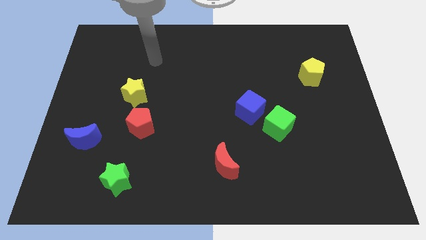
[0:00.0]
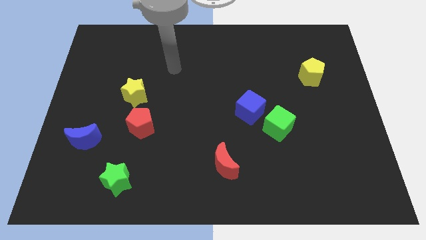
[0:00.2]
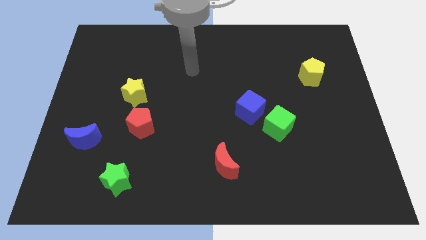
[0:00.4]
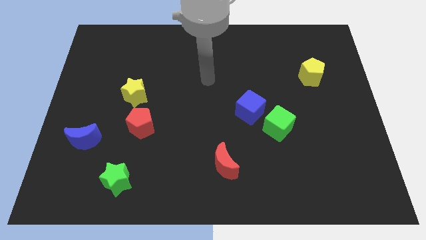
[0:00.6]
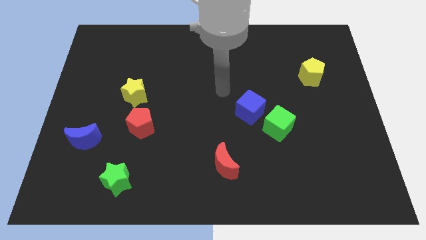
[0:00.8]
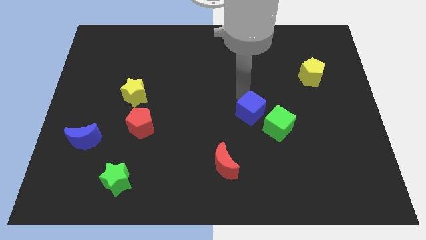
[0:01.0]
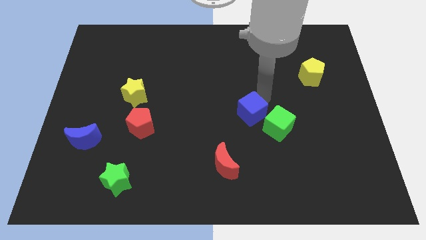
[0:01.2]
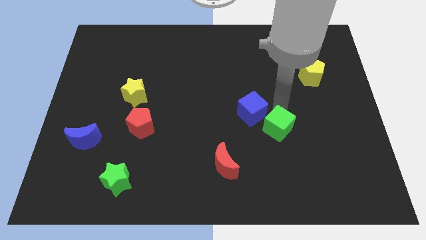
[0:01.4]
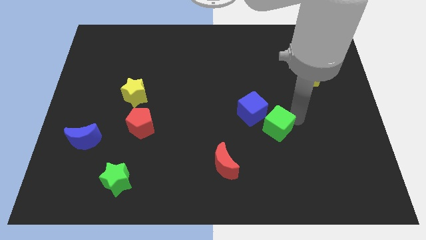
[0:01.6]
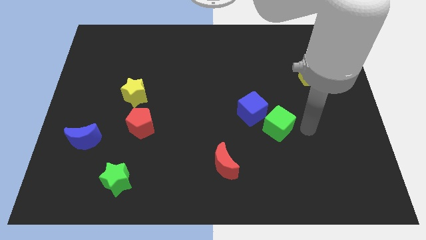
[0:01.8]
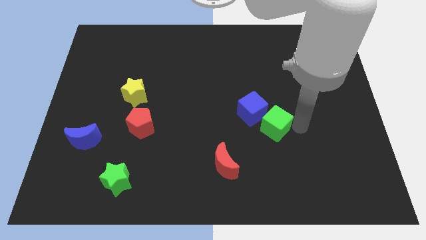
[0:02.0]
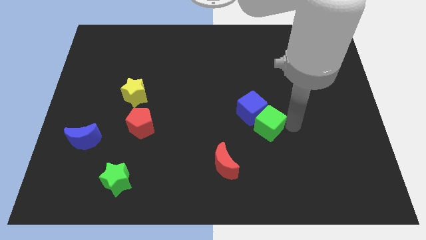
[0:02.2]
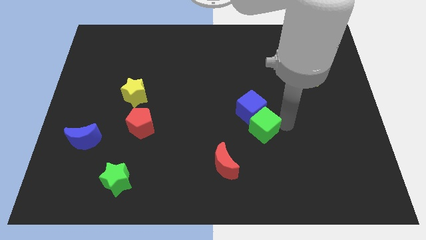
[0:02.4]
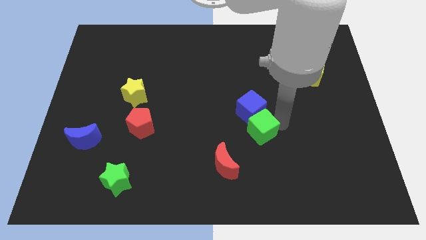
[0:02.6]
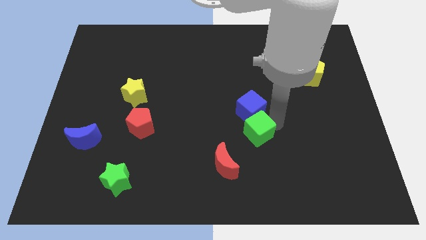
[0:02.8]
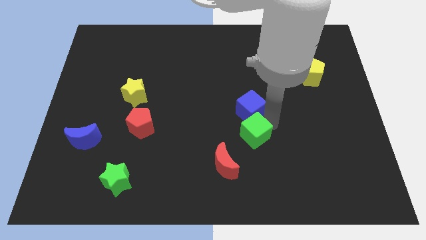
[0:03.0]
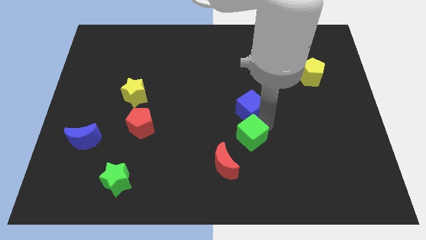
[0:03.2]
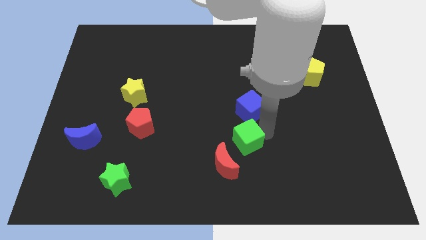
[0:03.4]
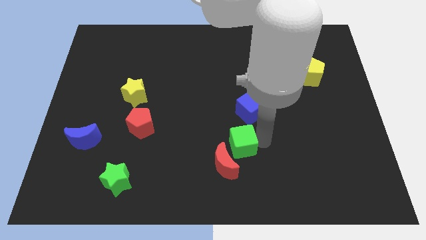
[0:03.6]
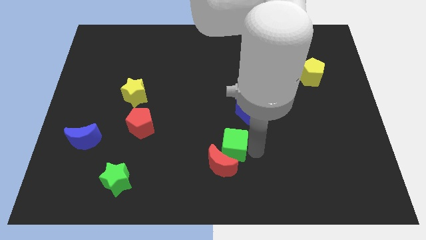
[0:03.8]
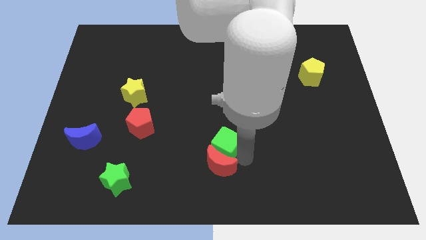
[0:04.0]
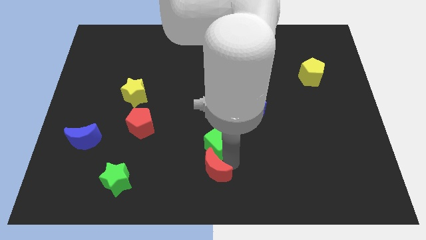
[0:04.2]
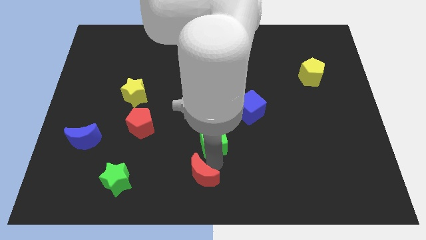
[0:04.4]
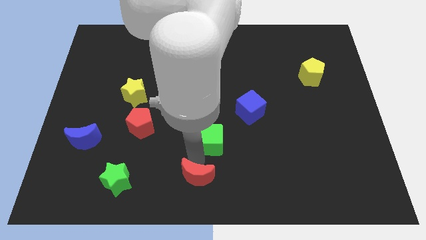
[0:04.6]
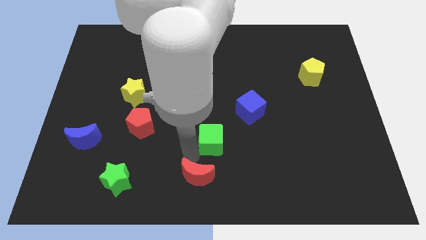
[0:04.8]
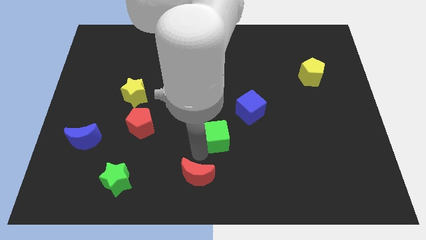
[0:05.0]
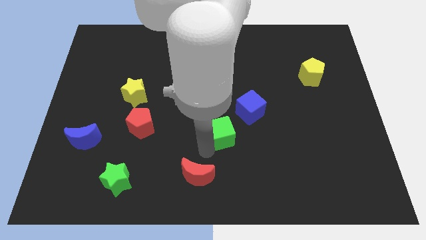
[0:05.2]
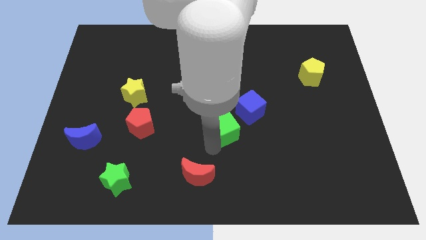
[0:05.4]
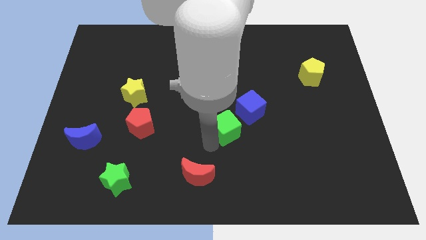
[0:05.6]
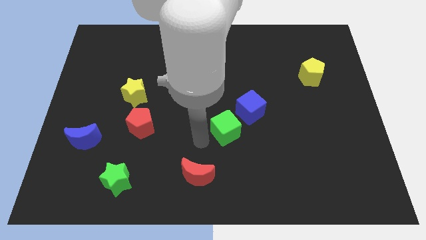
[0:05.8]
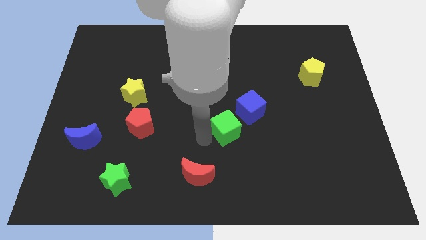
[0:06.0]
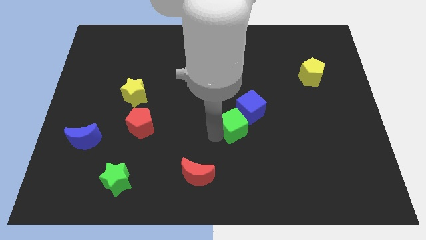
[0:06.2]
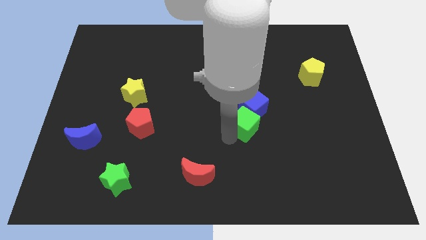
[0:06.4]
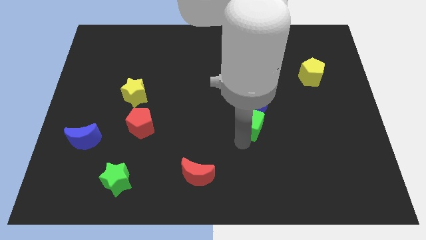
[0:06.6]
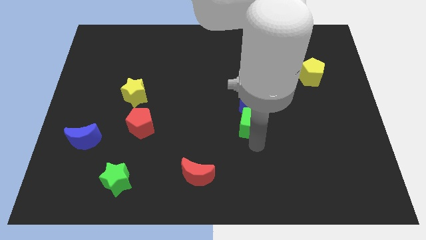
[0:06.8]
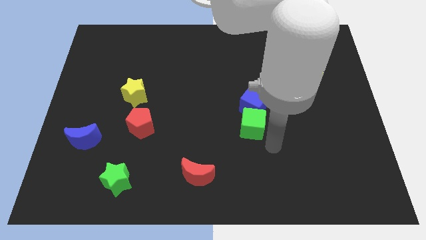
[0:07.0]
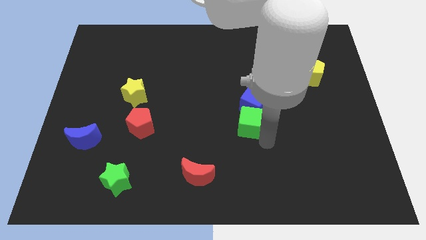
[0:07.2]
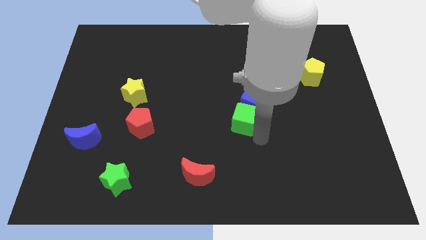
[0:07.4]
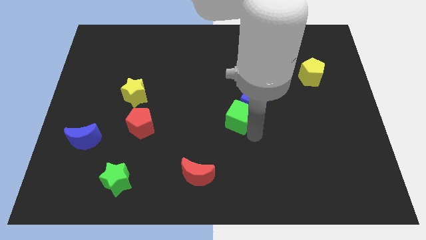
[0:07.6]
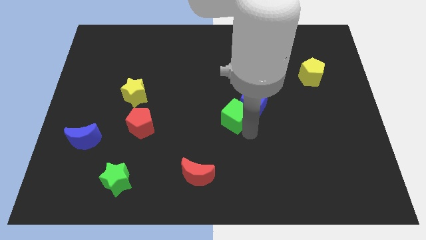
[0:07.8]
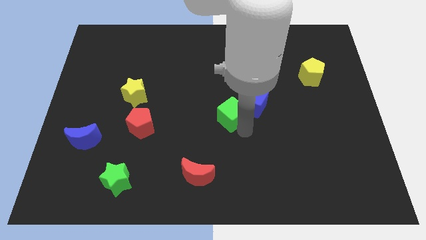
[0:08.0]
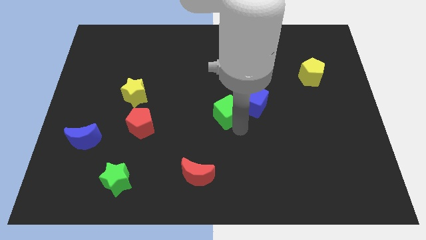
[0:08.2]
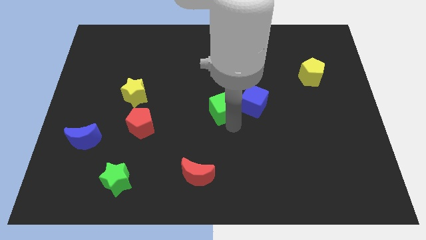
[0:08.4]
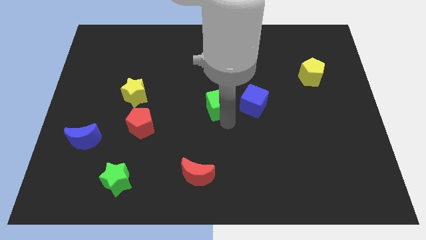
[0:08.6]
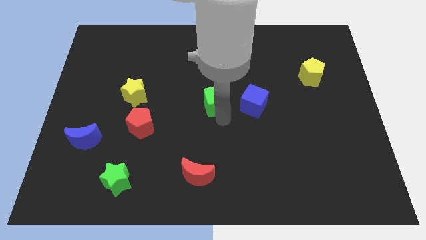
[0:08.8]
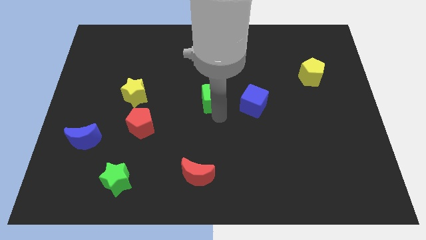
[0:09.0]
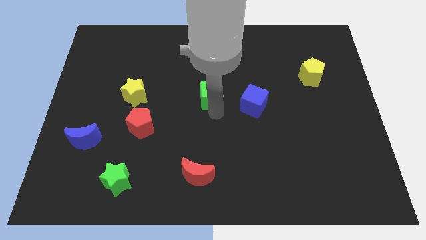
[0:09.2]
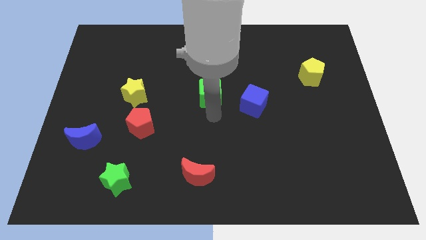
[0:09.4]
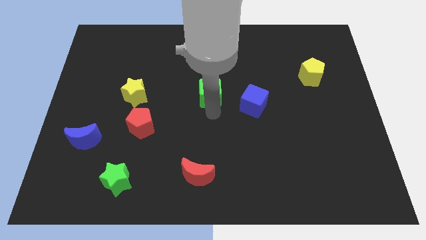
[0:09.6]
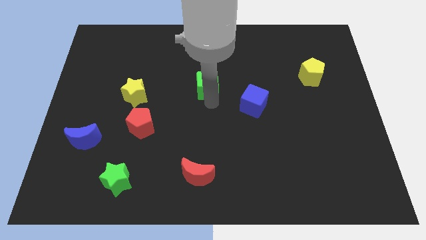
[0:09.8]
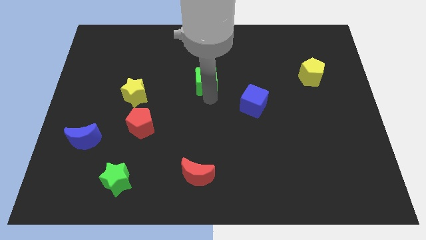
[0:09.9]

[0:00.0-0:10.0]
push the green cube diagonally upwards and to the left

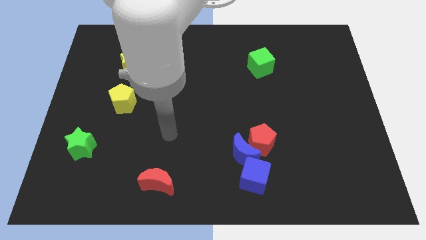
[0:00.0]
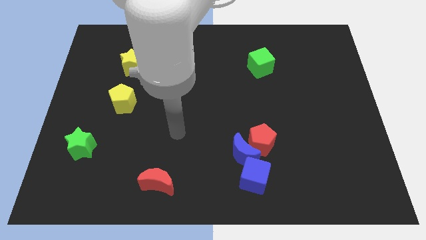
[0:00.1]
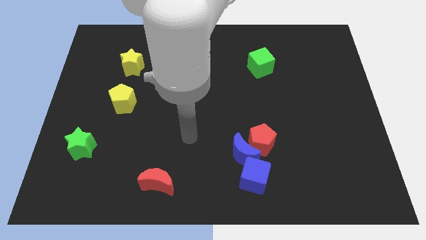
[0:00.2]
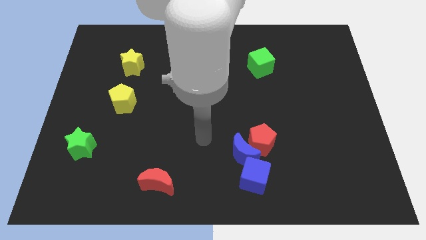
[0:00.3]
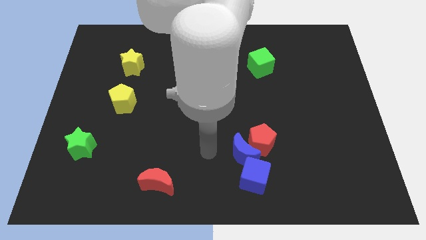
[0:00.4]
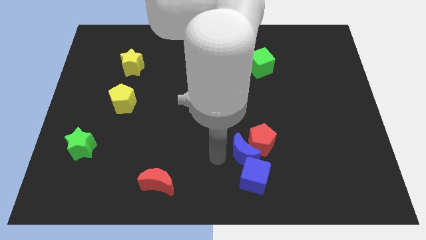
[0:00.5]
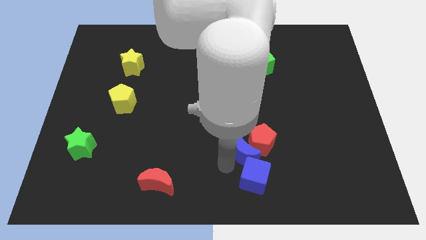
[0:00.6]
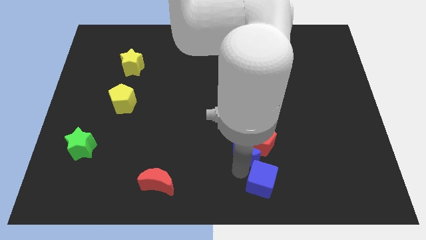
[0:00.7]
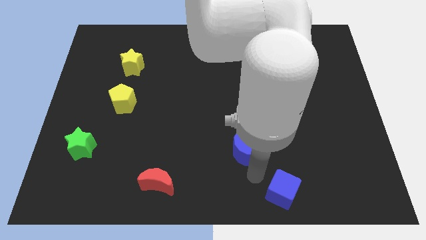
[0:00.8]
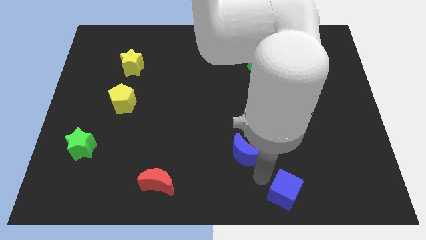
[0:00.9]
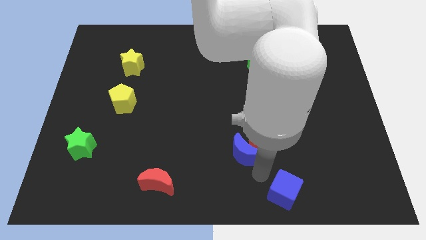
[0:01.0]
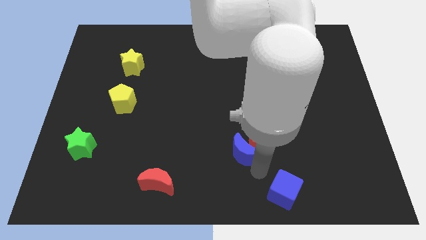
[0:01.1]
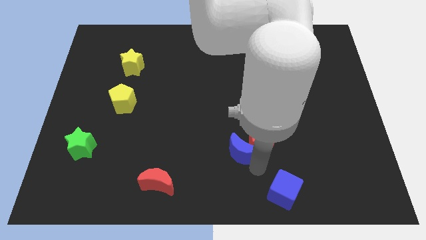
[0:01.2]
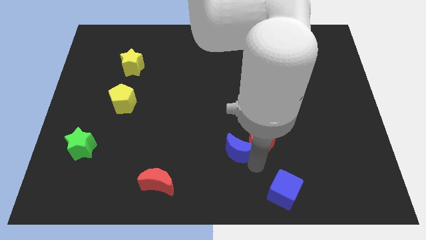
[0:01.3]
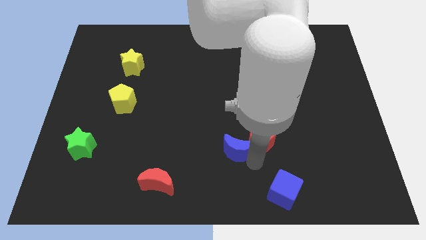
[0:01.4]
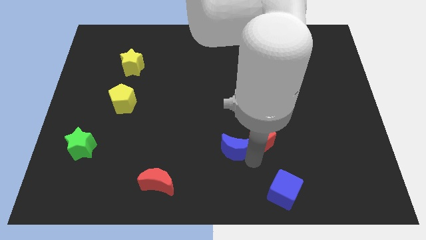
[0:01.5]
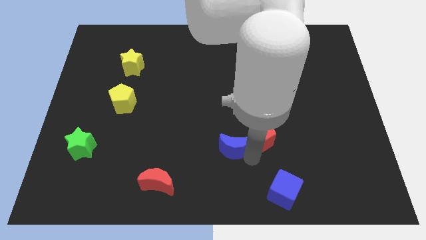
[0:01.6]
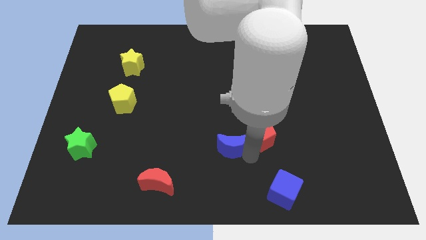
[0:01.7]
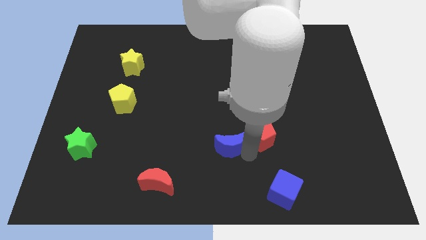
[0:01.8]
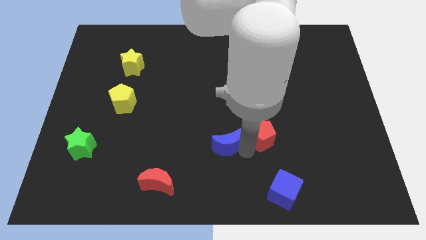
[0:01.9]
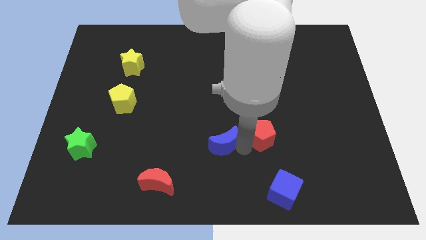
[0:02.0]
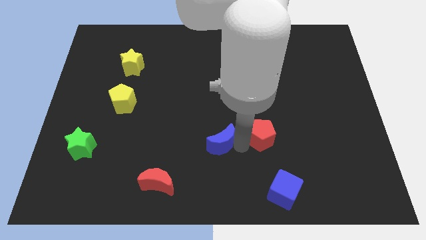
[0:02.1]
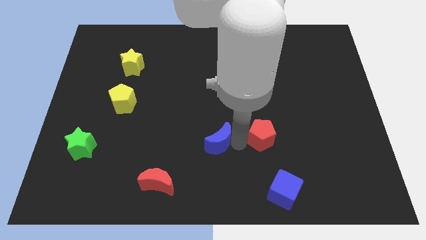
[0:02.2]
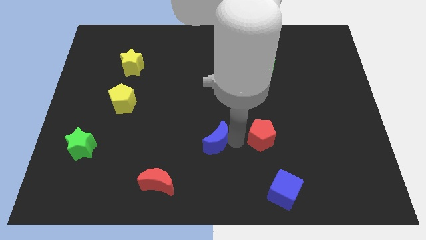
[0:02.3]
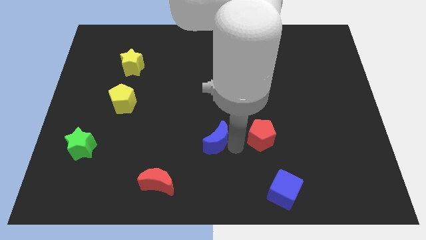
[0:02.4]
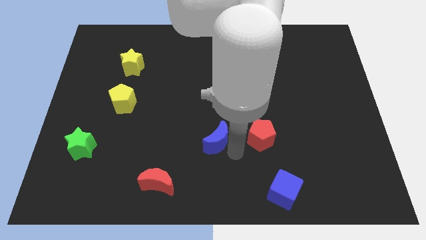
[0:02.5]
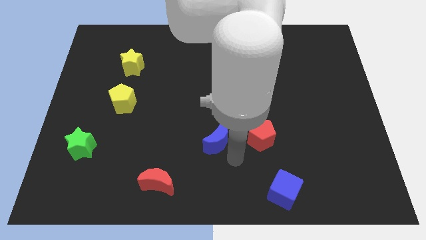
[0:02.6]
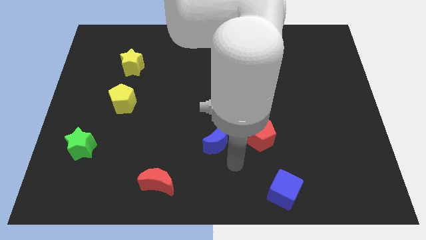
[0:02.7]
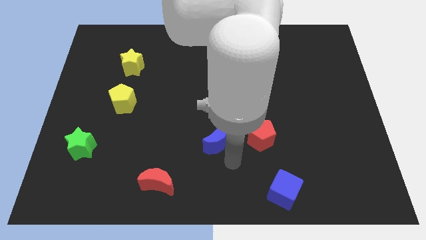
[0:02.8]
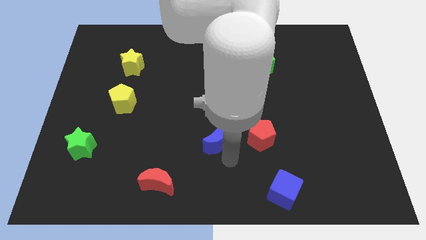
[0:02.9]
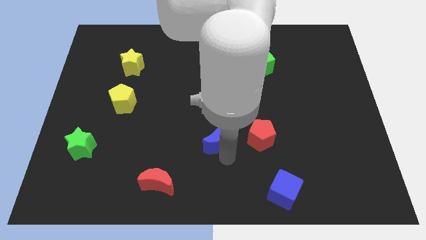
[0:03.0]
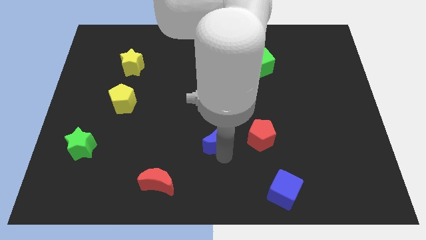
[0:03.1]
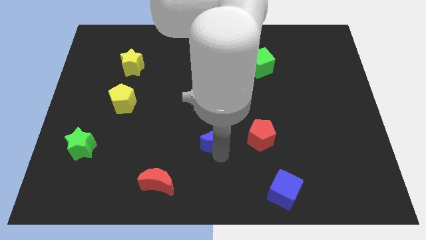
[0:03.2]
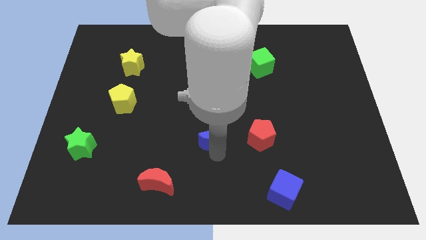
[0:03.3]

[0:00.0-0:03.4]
slightly slide the blue moon up and left diagonally
